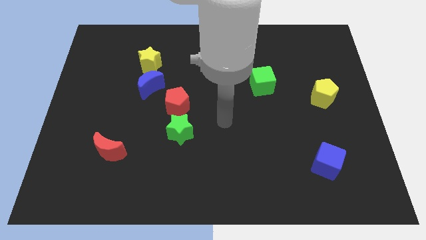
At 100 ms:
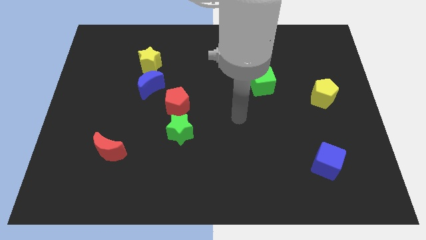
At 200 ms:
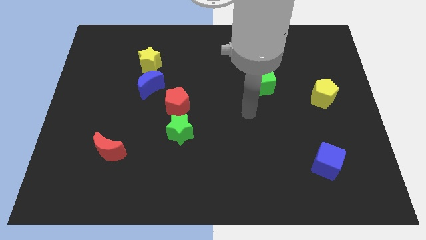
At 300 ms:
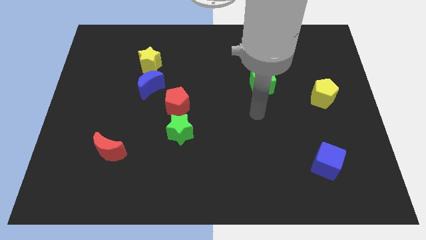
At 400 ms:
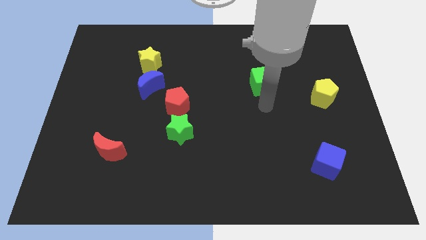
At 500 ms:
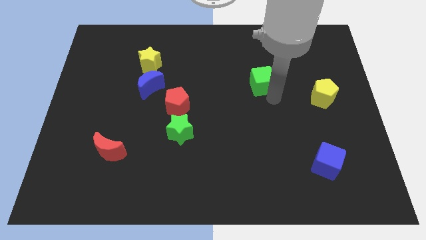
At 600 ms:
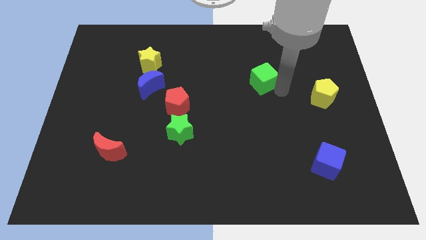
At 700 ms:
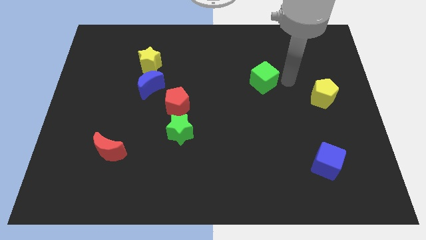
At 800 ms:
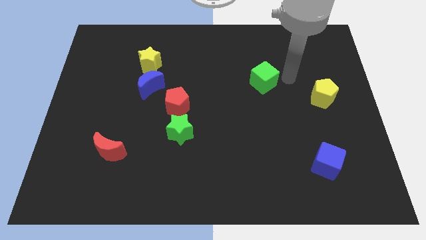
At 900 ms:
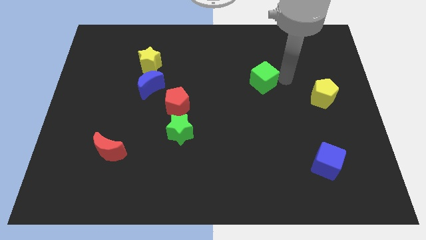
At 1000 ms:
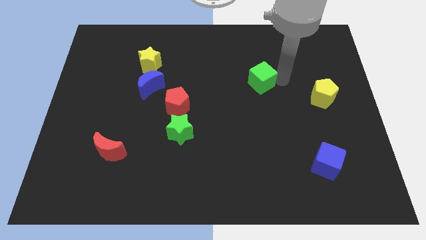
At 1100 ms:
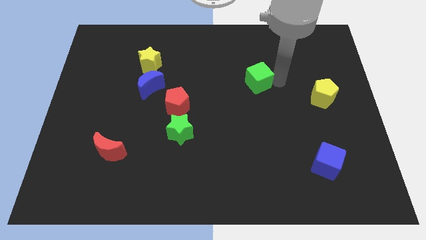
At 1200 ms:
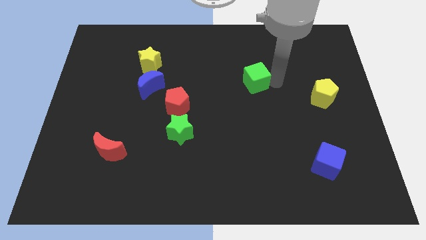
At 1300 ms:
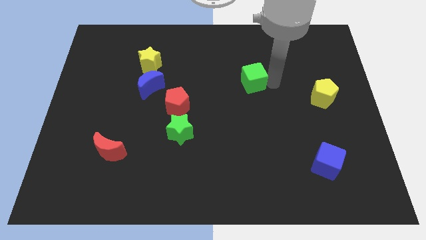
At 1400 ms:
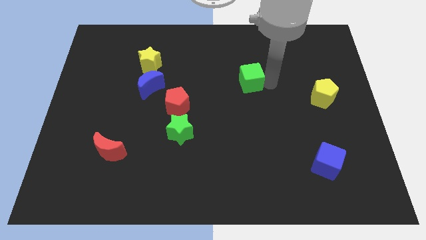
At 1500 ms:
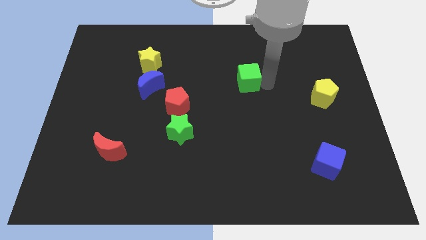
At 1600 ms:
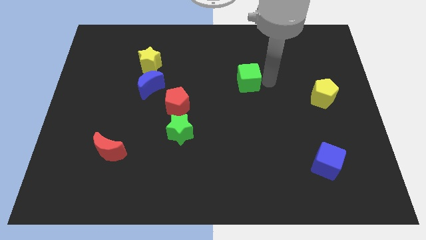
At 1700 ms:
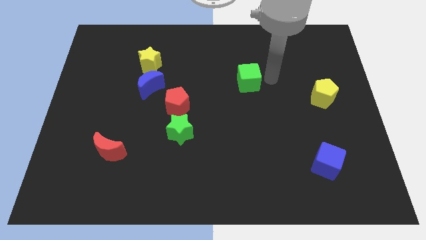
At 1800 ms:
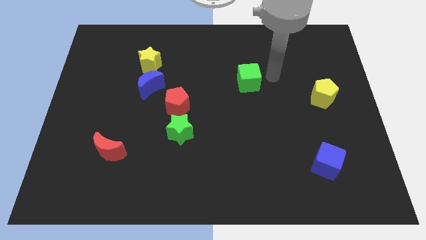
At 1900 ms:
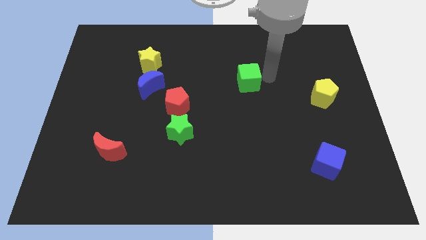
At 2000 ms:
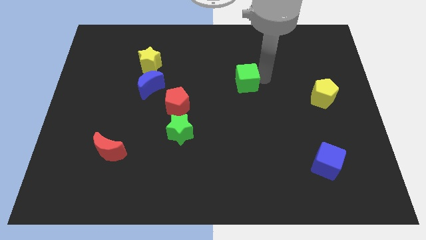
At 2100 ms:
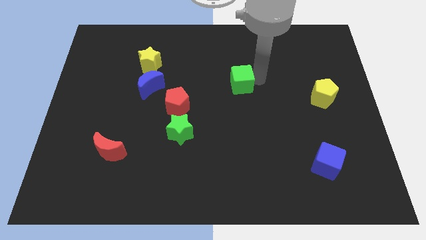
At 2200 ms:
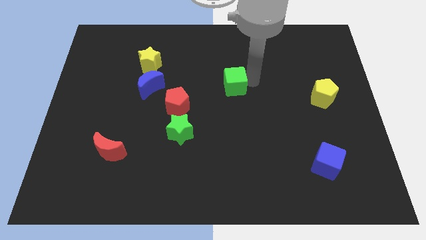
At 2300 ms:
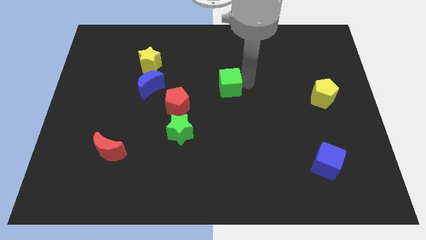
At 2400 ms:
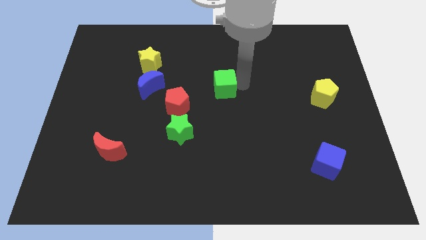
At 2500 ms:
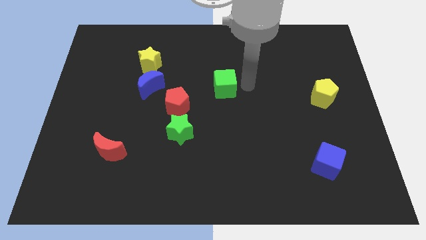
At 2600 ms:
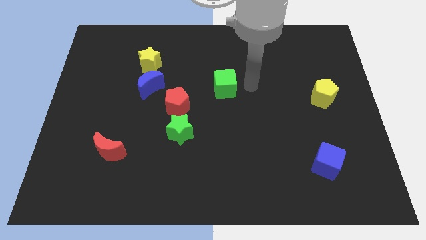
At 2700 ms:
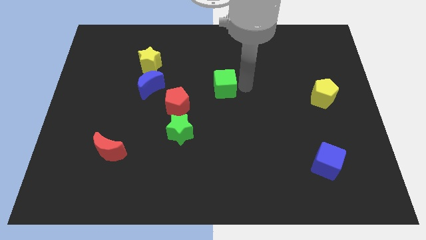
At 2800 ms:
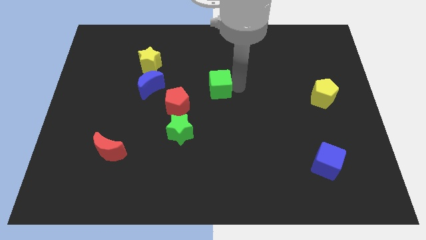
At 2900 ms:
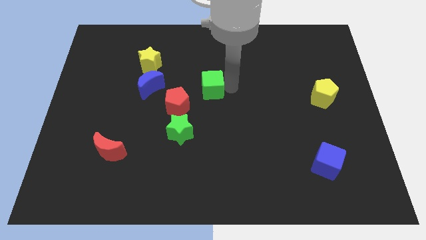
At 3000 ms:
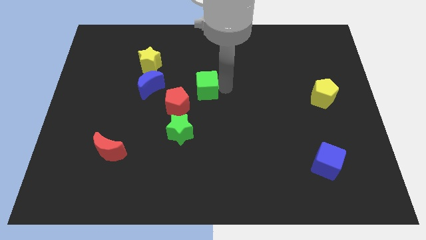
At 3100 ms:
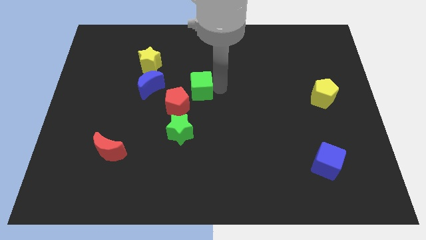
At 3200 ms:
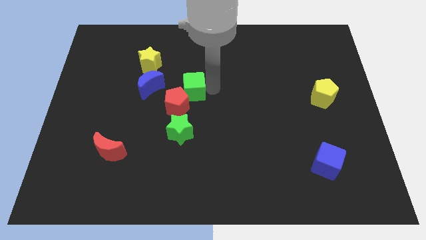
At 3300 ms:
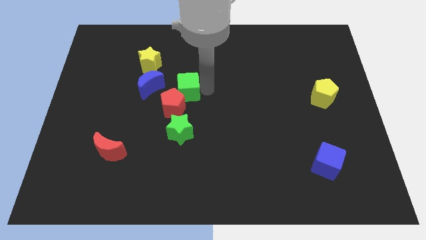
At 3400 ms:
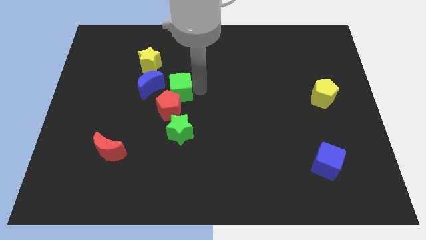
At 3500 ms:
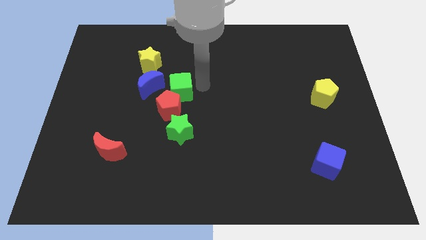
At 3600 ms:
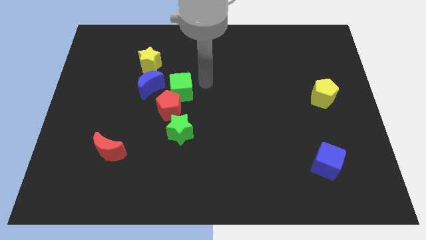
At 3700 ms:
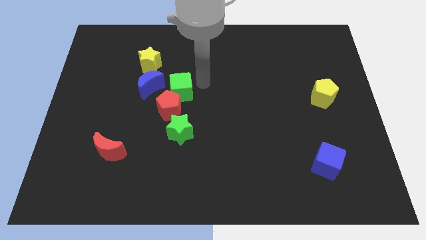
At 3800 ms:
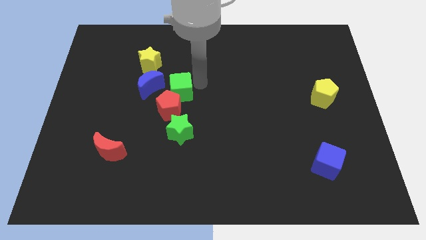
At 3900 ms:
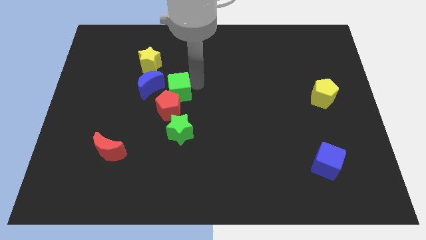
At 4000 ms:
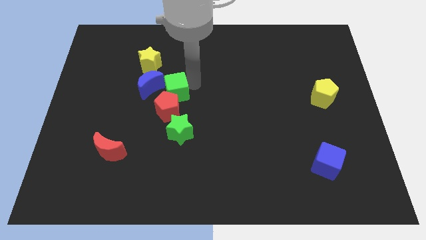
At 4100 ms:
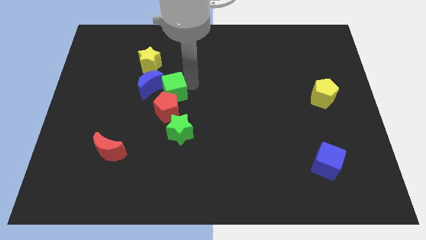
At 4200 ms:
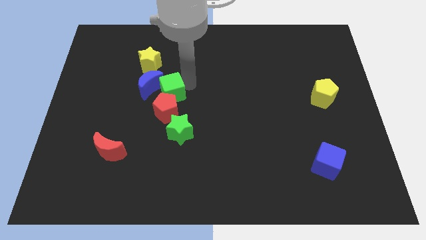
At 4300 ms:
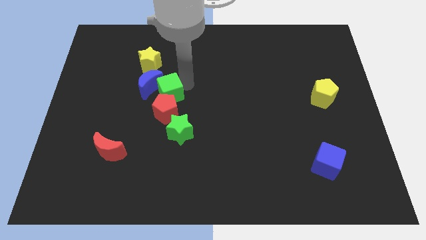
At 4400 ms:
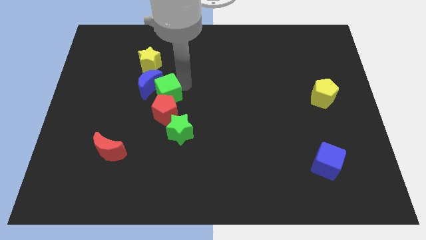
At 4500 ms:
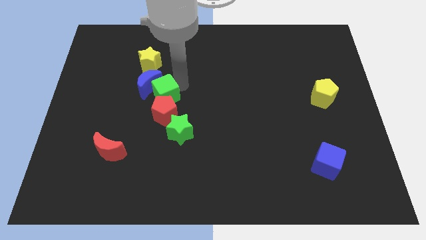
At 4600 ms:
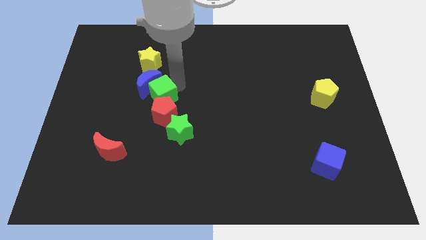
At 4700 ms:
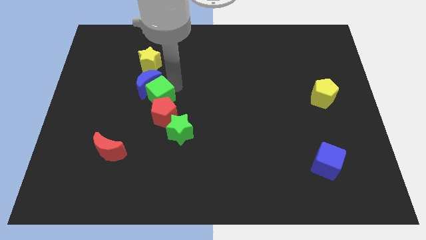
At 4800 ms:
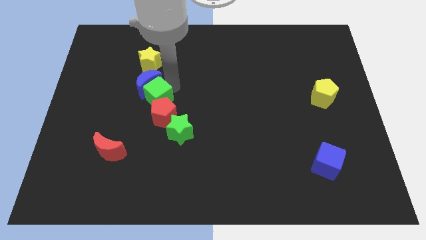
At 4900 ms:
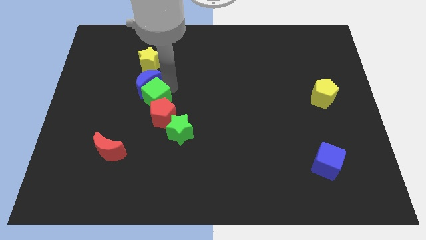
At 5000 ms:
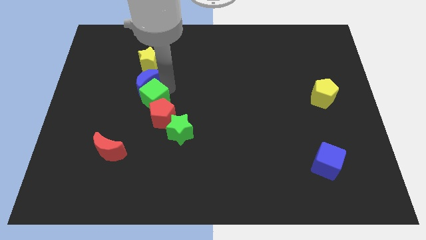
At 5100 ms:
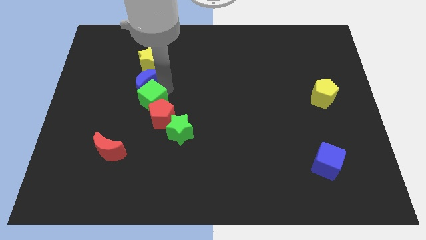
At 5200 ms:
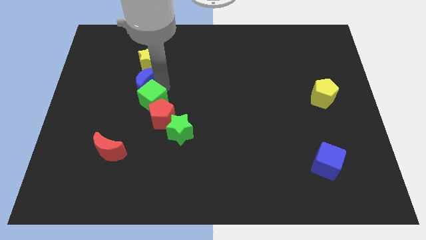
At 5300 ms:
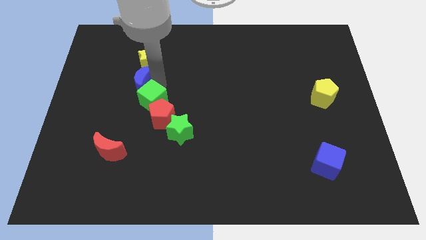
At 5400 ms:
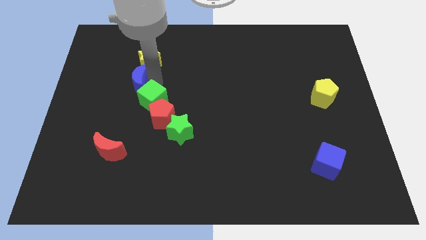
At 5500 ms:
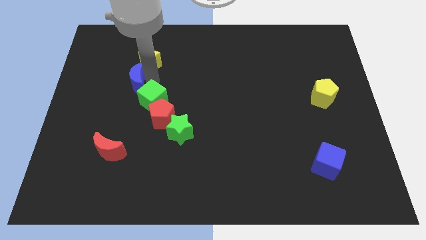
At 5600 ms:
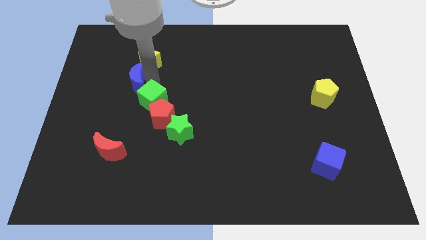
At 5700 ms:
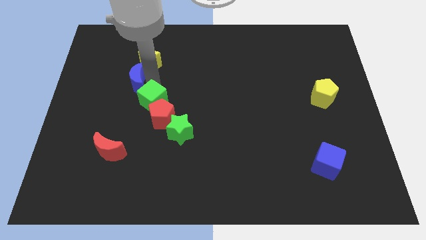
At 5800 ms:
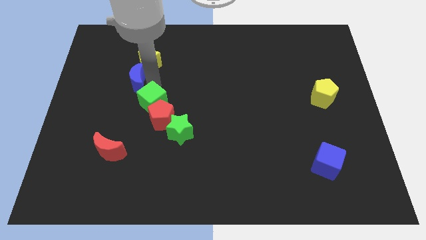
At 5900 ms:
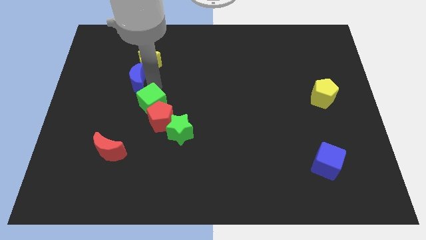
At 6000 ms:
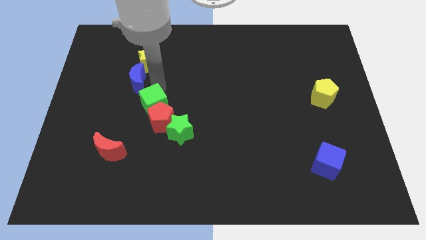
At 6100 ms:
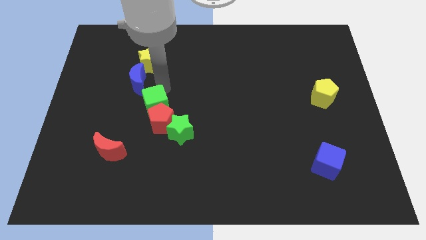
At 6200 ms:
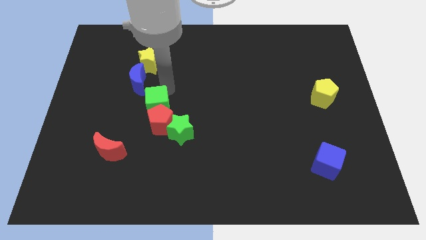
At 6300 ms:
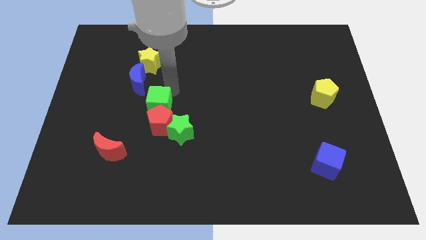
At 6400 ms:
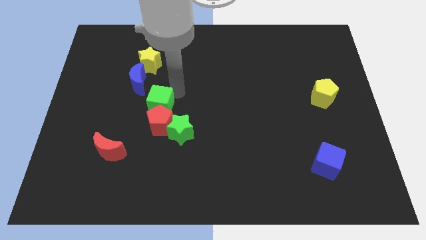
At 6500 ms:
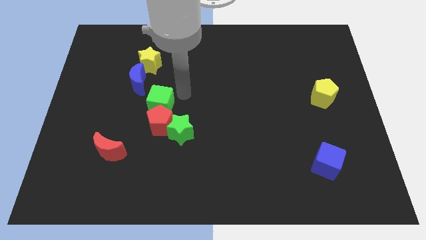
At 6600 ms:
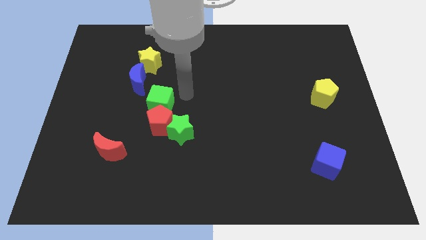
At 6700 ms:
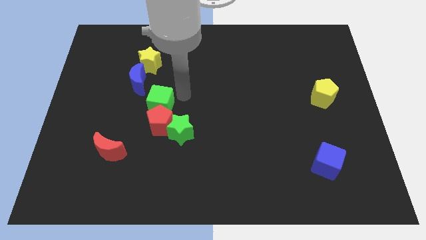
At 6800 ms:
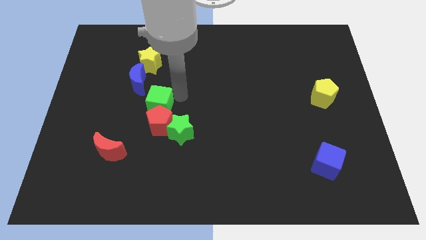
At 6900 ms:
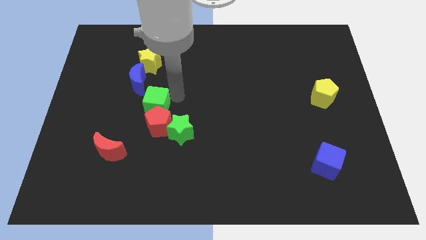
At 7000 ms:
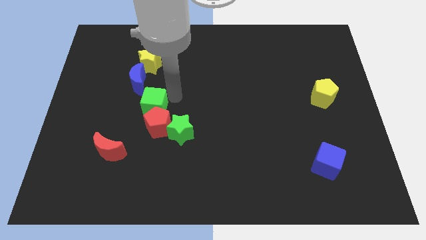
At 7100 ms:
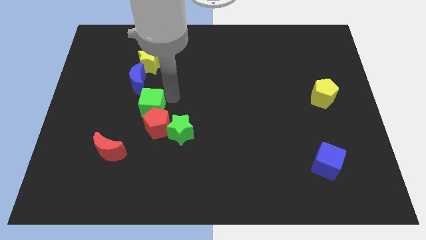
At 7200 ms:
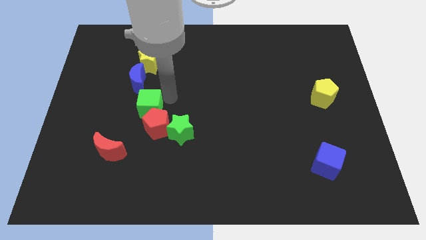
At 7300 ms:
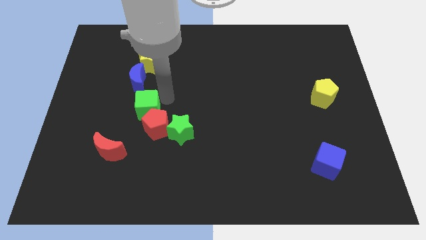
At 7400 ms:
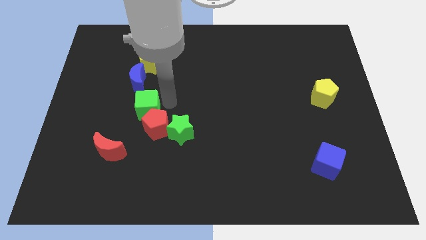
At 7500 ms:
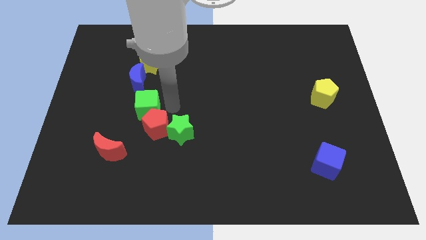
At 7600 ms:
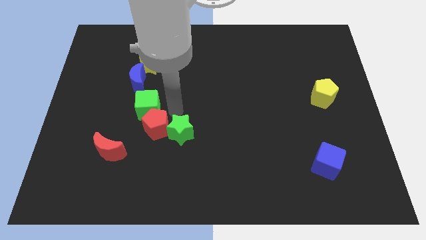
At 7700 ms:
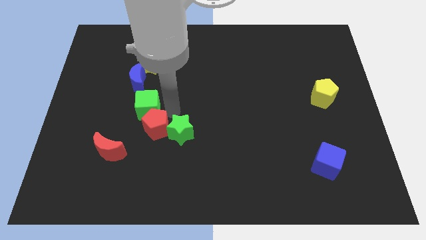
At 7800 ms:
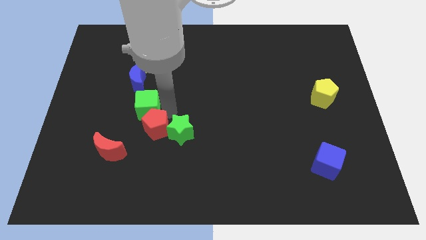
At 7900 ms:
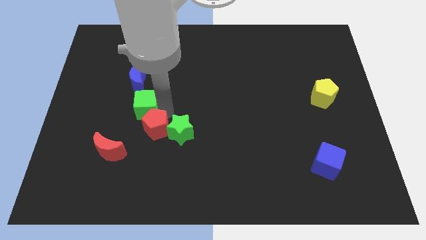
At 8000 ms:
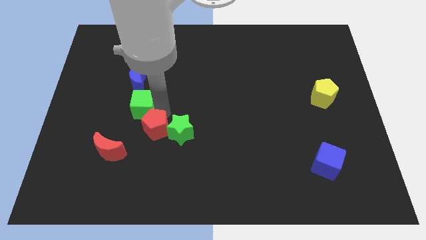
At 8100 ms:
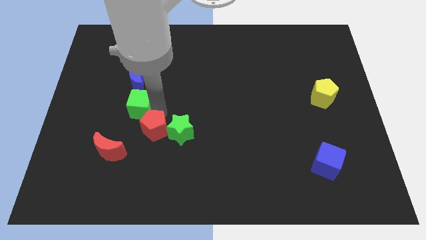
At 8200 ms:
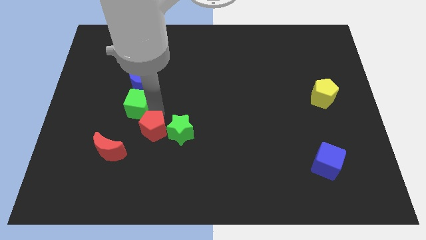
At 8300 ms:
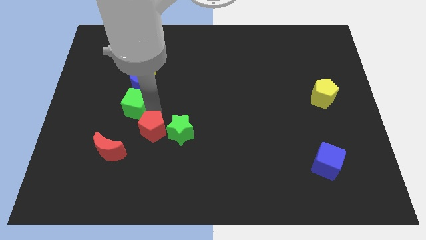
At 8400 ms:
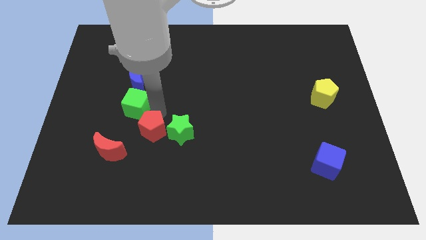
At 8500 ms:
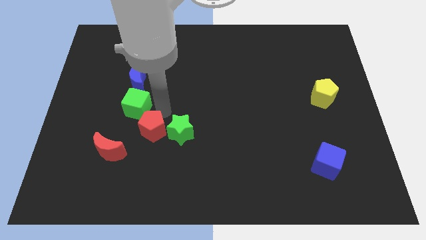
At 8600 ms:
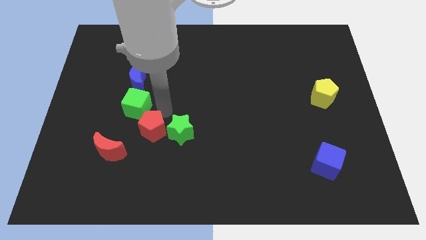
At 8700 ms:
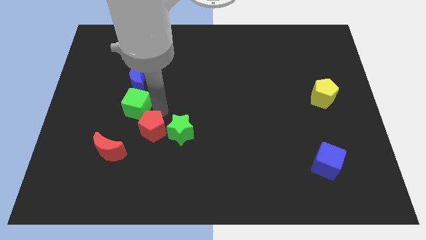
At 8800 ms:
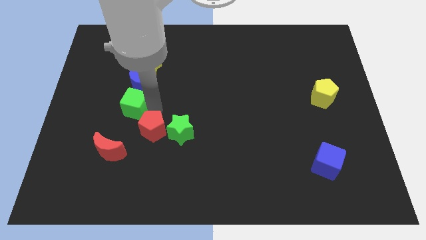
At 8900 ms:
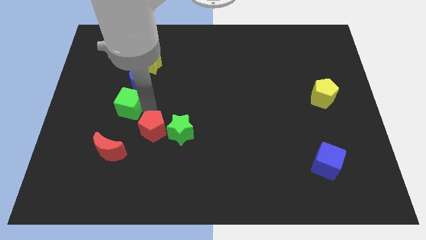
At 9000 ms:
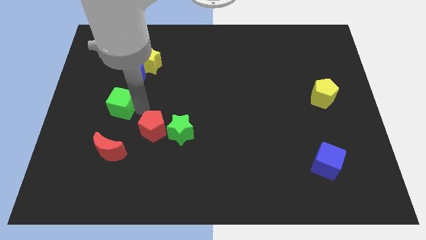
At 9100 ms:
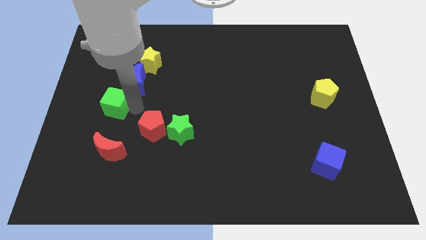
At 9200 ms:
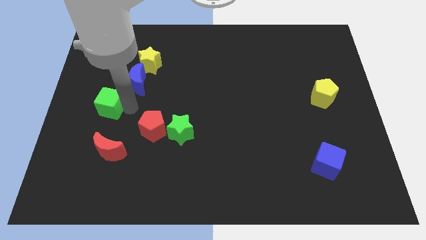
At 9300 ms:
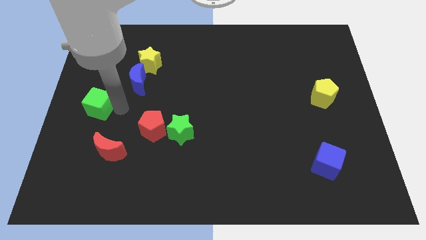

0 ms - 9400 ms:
push the green cube to the left side
